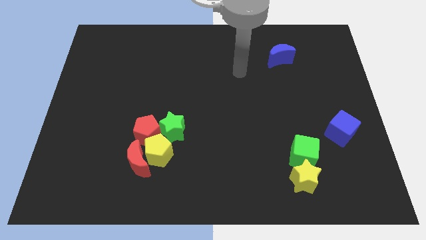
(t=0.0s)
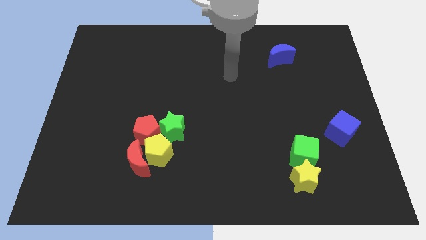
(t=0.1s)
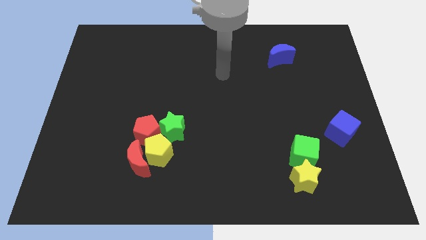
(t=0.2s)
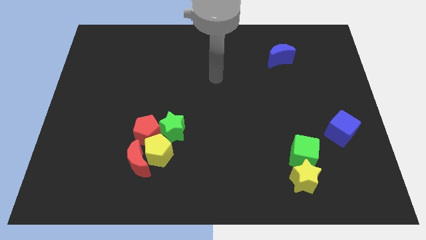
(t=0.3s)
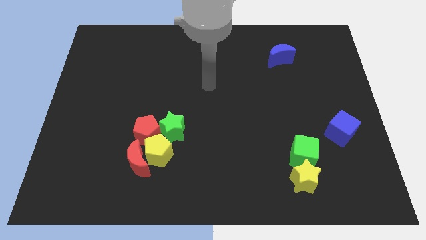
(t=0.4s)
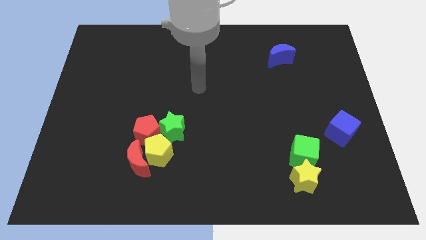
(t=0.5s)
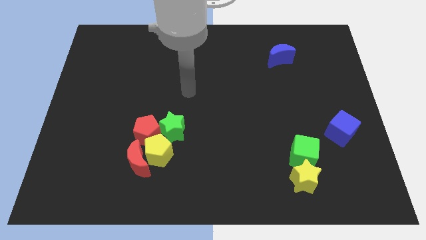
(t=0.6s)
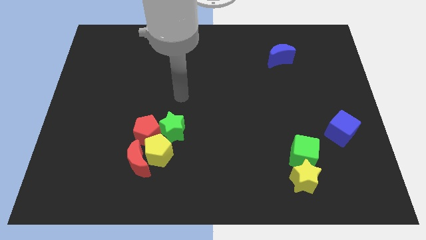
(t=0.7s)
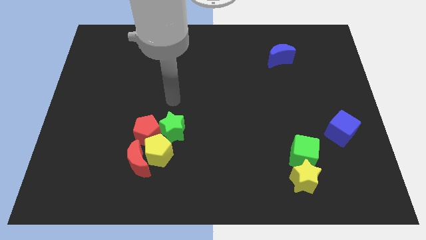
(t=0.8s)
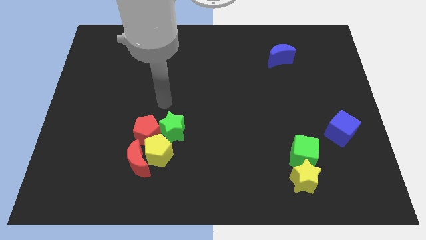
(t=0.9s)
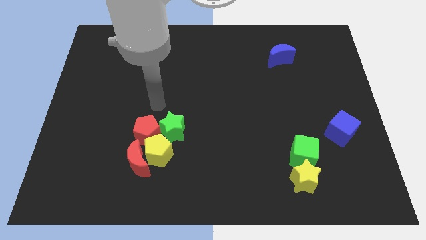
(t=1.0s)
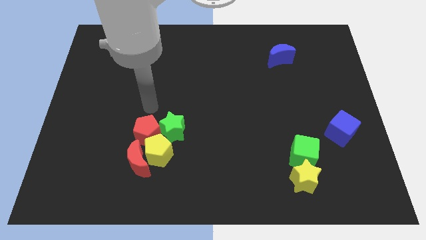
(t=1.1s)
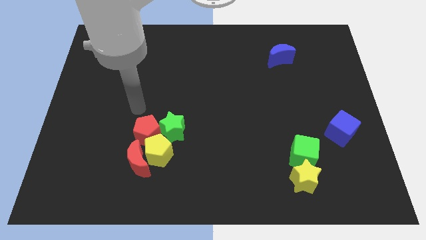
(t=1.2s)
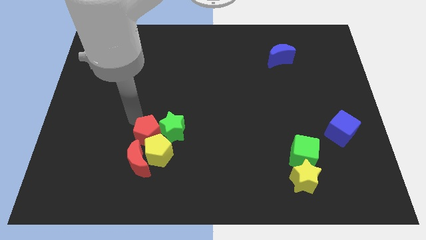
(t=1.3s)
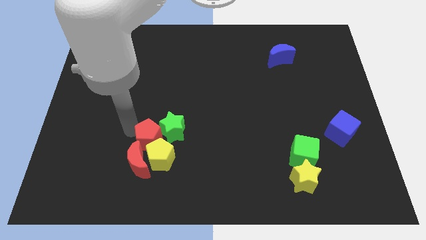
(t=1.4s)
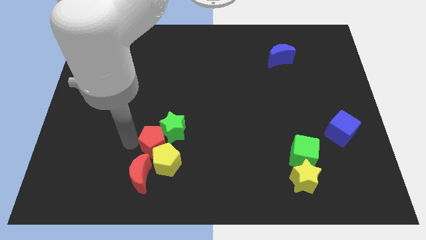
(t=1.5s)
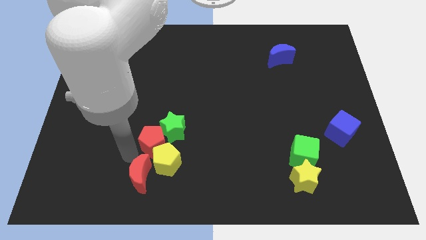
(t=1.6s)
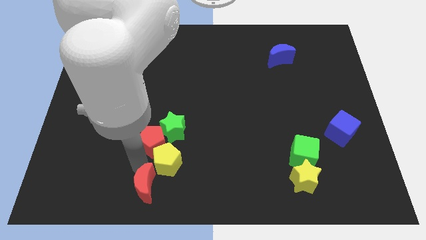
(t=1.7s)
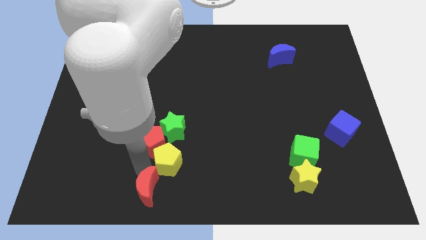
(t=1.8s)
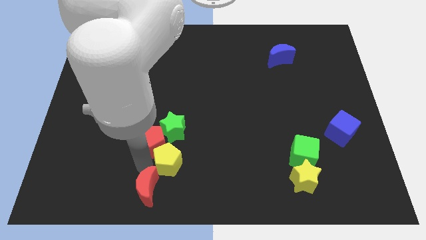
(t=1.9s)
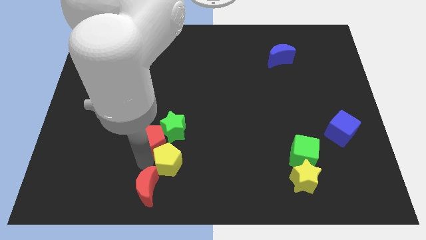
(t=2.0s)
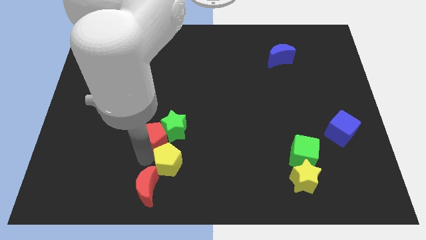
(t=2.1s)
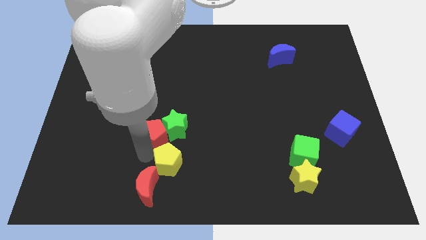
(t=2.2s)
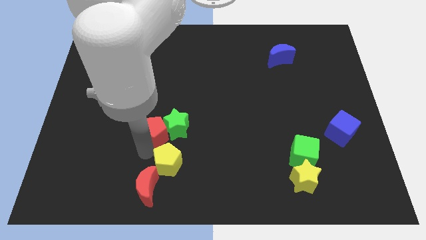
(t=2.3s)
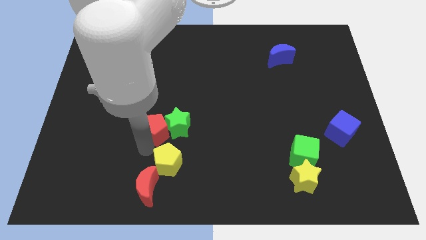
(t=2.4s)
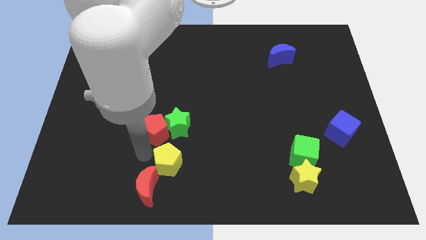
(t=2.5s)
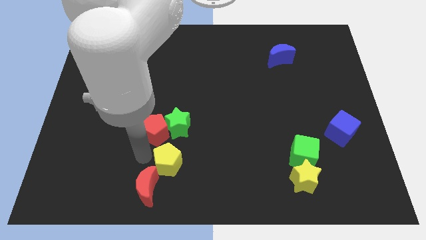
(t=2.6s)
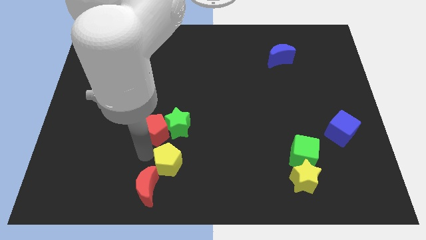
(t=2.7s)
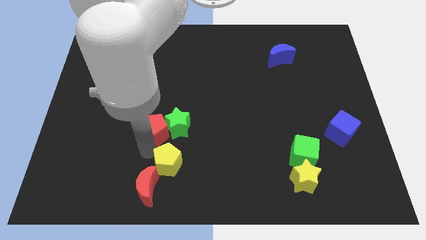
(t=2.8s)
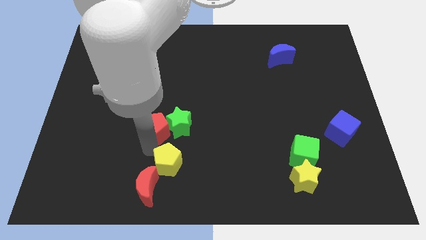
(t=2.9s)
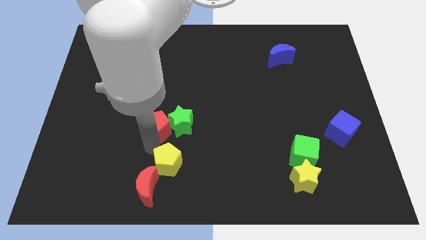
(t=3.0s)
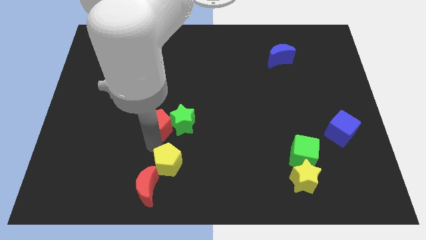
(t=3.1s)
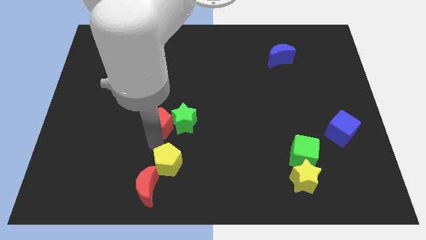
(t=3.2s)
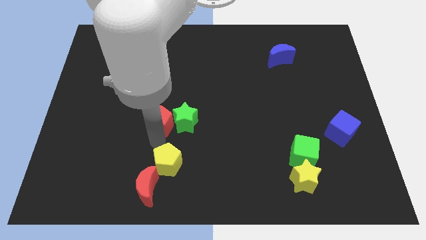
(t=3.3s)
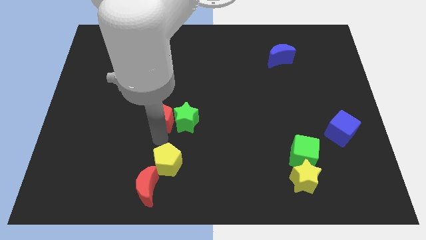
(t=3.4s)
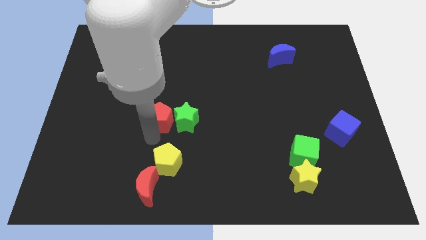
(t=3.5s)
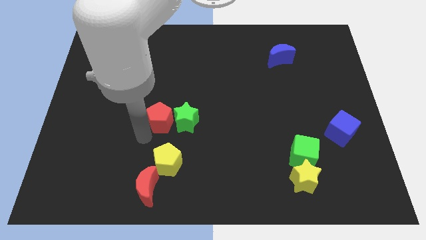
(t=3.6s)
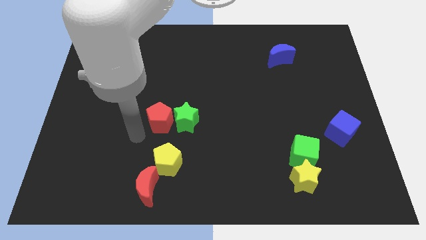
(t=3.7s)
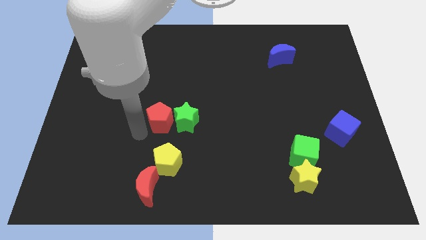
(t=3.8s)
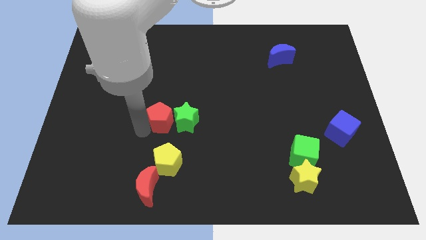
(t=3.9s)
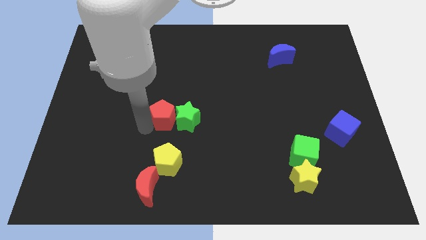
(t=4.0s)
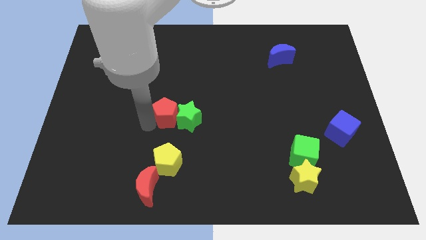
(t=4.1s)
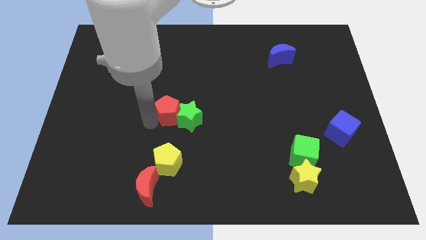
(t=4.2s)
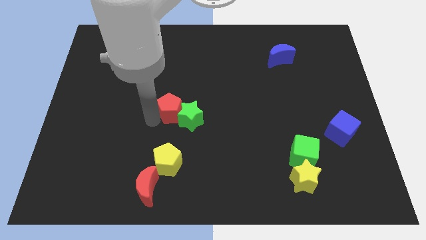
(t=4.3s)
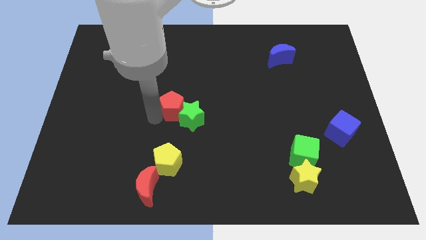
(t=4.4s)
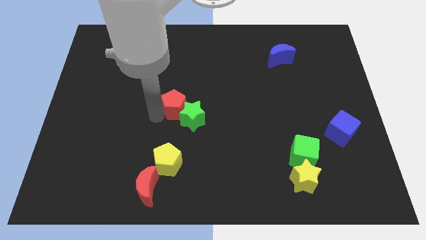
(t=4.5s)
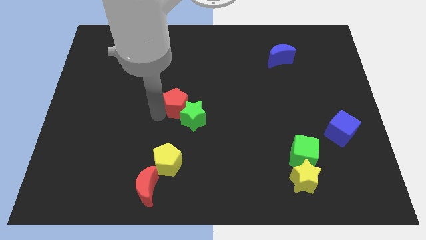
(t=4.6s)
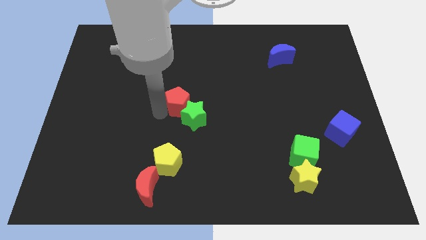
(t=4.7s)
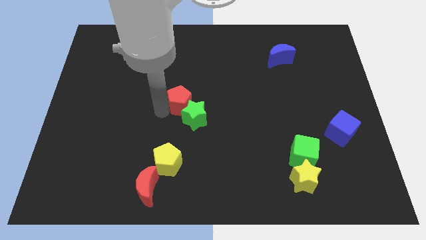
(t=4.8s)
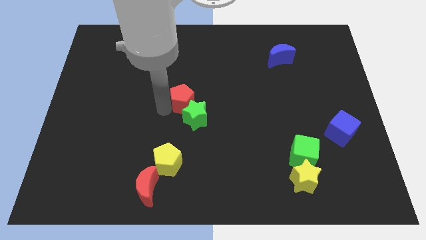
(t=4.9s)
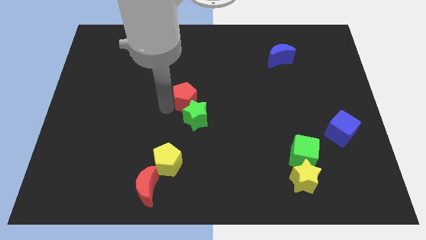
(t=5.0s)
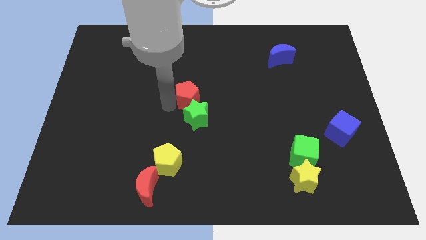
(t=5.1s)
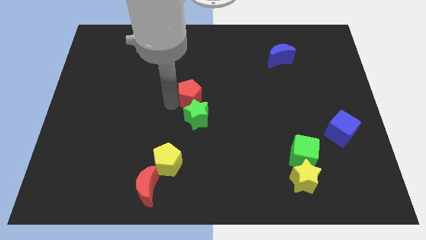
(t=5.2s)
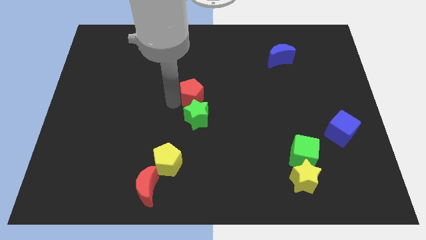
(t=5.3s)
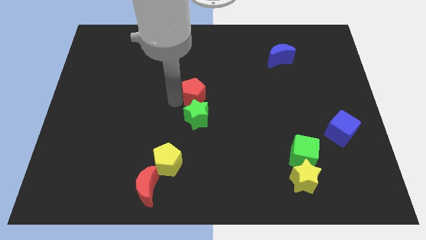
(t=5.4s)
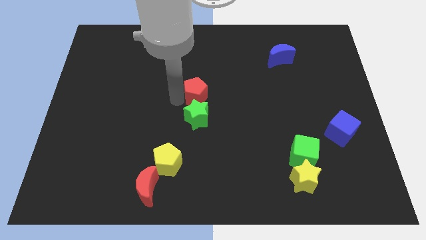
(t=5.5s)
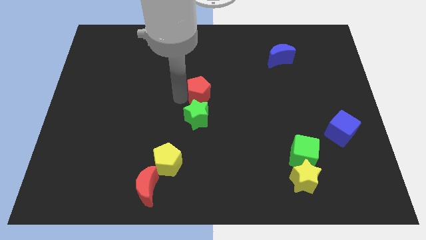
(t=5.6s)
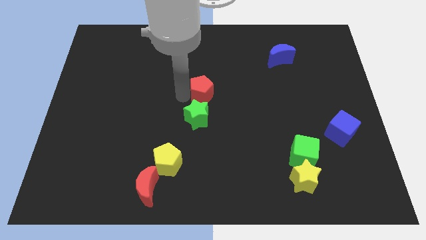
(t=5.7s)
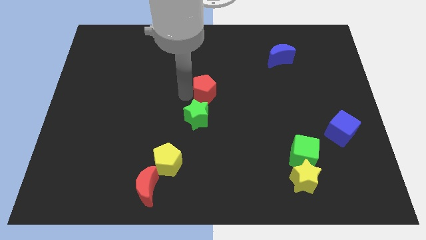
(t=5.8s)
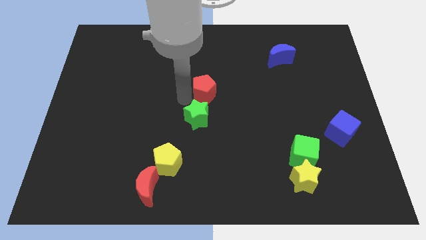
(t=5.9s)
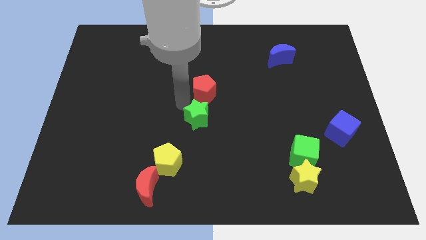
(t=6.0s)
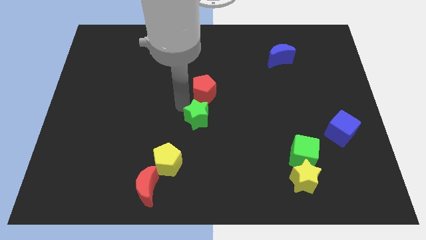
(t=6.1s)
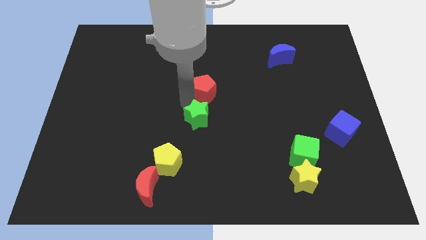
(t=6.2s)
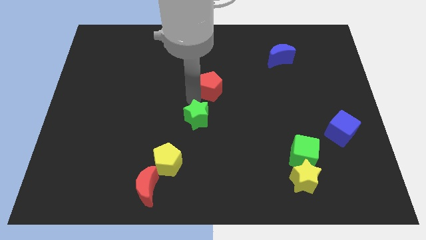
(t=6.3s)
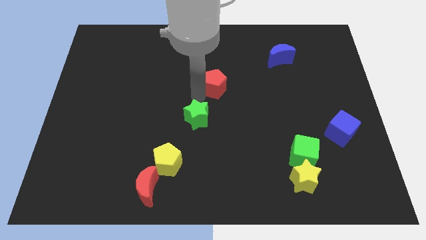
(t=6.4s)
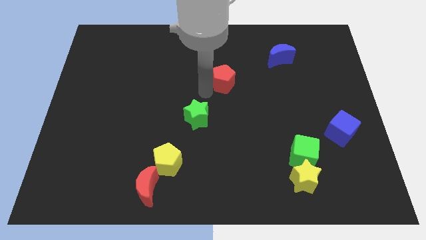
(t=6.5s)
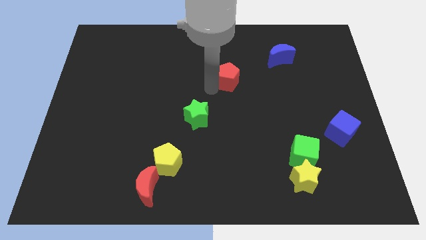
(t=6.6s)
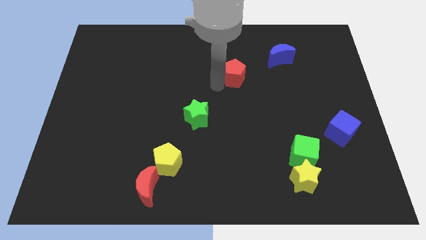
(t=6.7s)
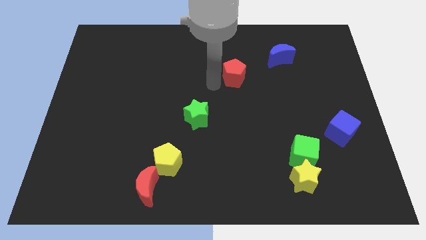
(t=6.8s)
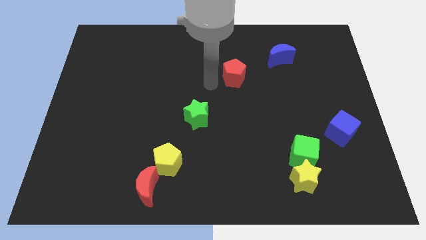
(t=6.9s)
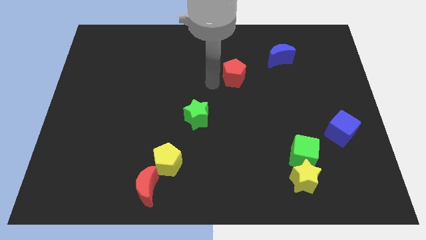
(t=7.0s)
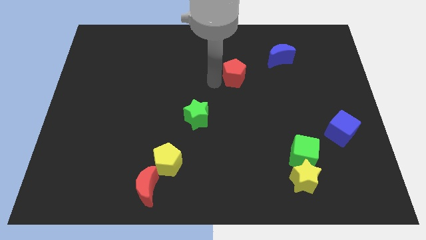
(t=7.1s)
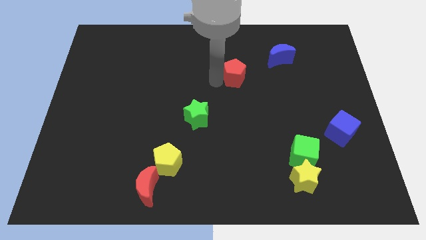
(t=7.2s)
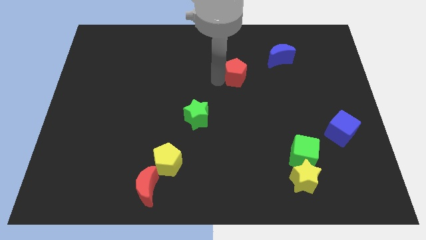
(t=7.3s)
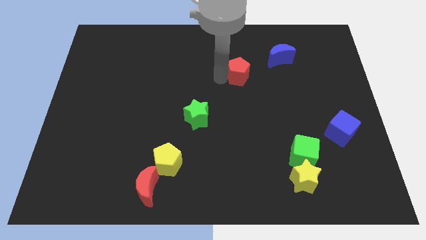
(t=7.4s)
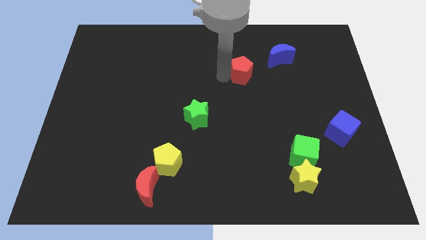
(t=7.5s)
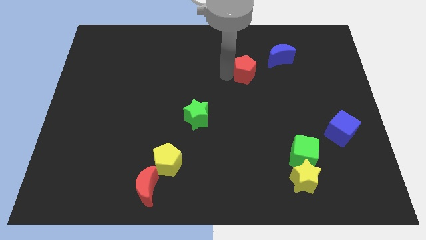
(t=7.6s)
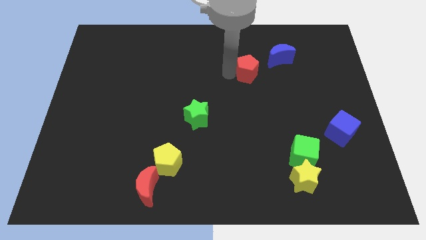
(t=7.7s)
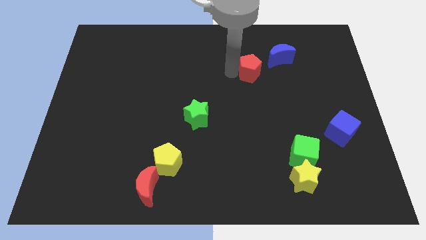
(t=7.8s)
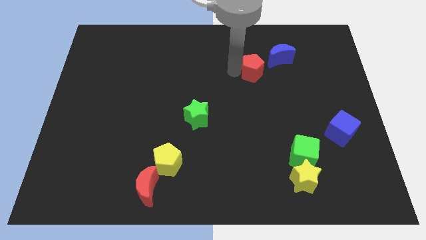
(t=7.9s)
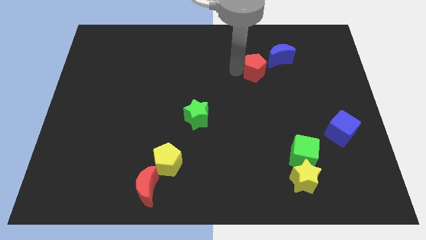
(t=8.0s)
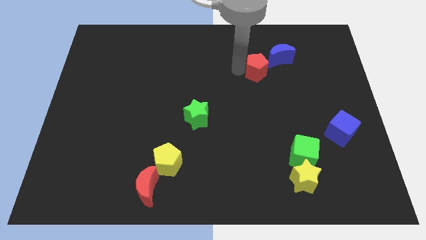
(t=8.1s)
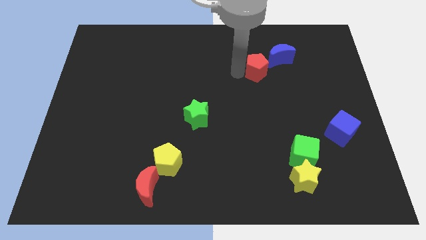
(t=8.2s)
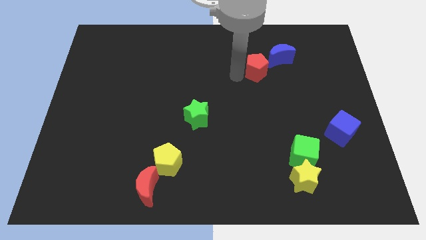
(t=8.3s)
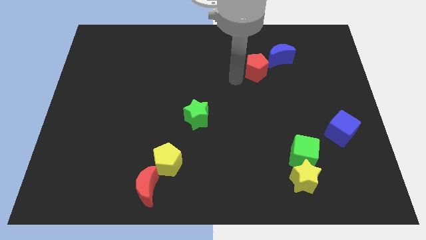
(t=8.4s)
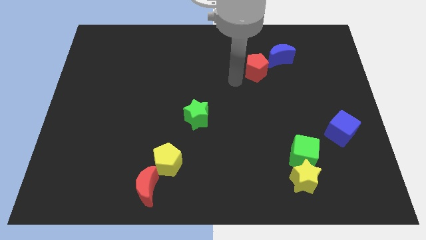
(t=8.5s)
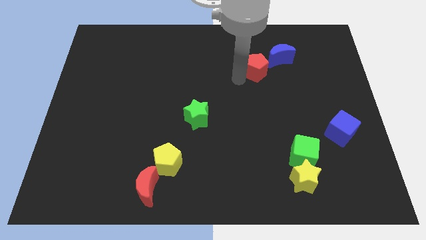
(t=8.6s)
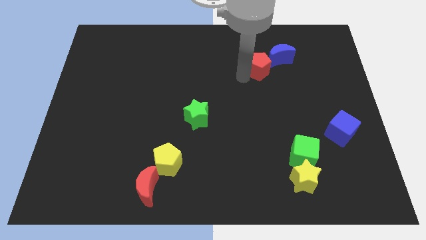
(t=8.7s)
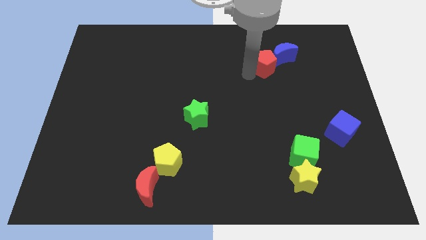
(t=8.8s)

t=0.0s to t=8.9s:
push the red pentagon close to the blue moon
